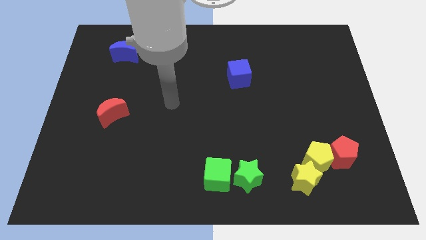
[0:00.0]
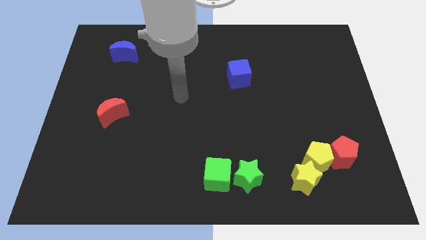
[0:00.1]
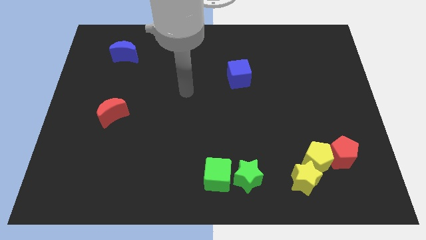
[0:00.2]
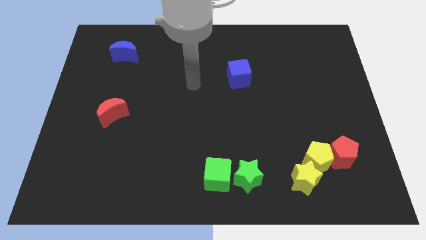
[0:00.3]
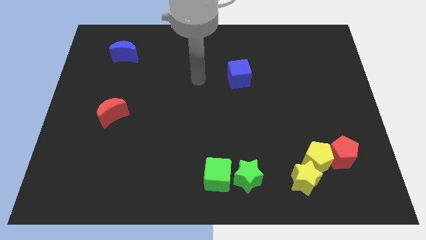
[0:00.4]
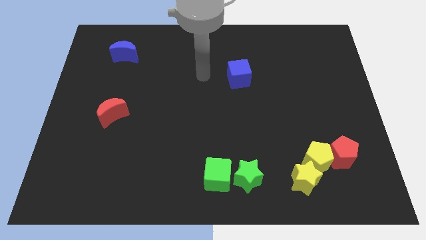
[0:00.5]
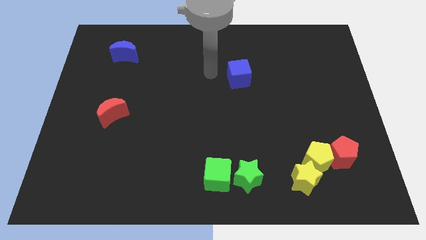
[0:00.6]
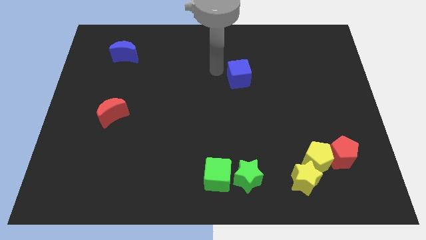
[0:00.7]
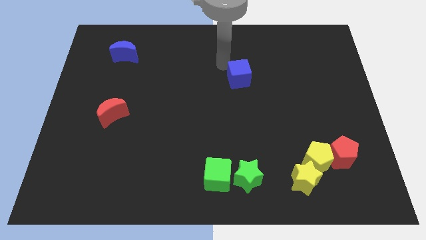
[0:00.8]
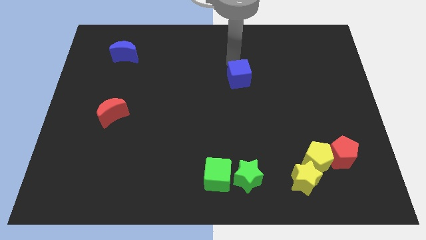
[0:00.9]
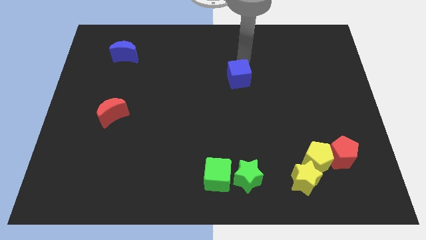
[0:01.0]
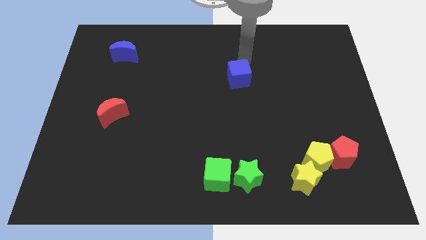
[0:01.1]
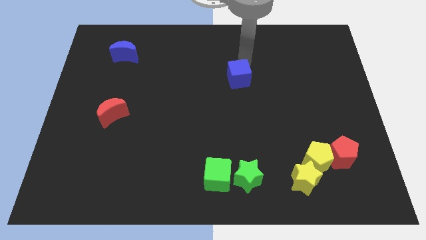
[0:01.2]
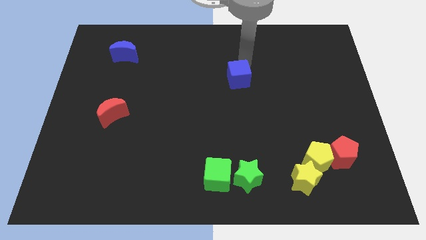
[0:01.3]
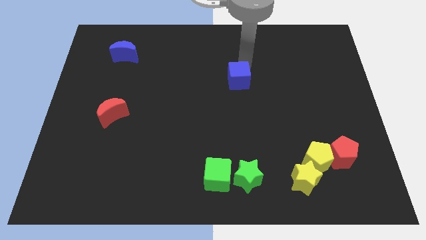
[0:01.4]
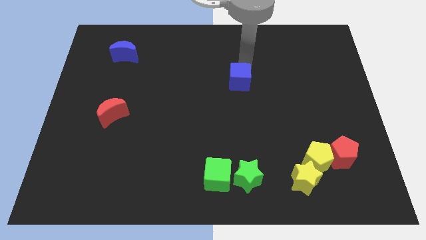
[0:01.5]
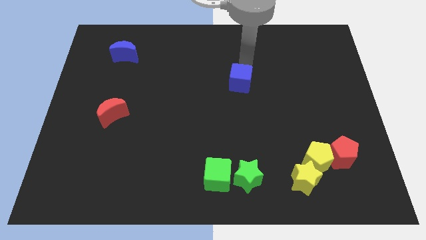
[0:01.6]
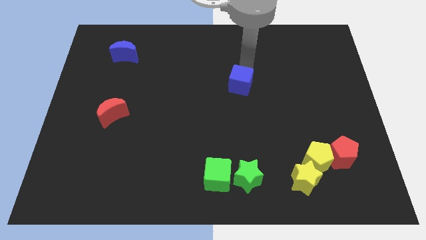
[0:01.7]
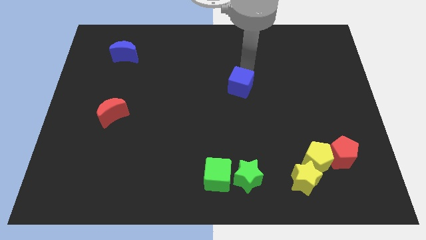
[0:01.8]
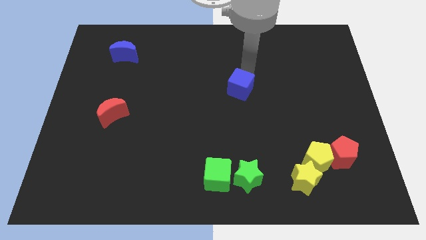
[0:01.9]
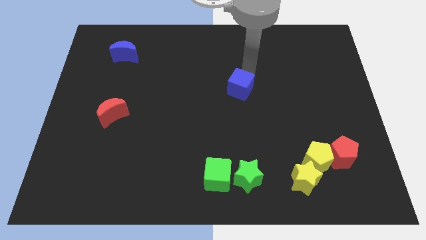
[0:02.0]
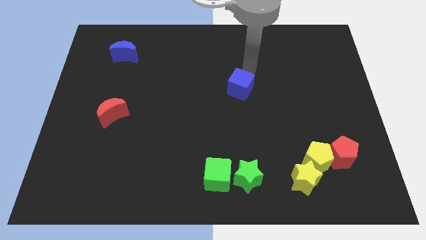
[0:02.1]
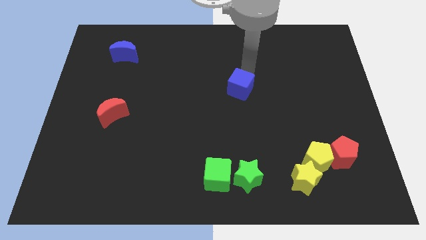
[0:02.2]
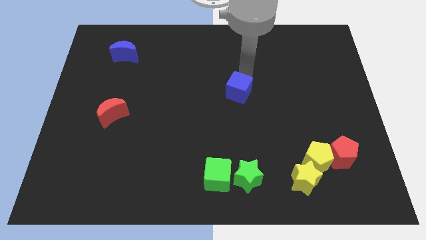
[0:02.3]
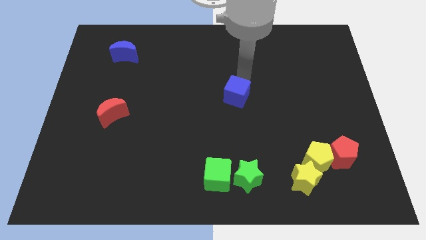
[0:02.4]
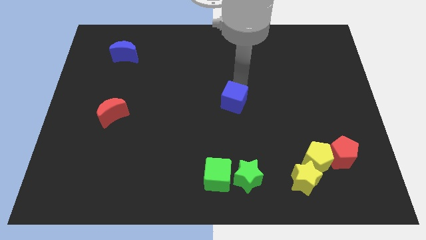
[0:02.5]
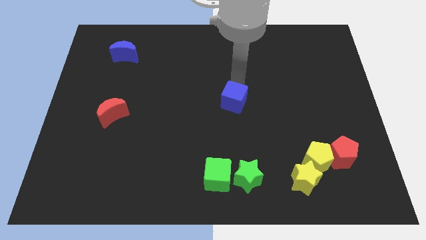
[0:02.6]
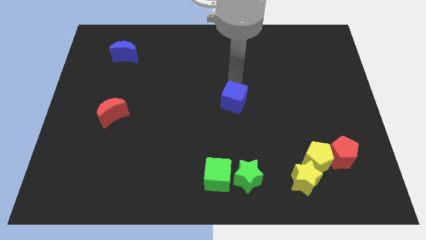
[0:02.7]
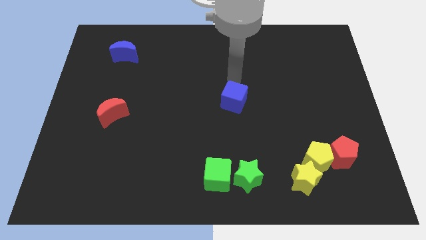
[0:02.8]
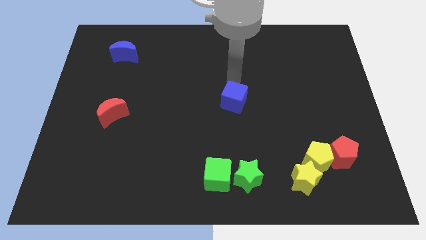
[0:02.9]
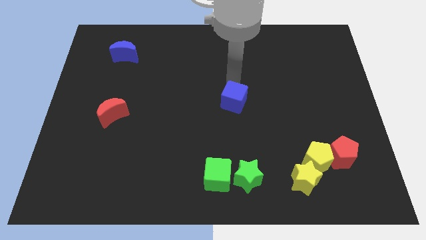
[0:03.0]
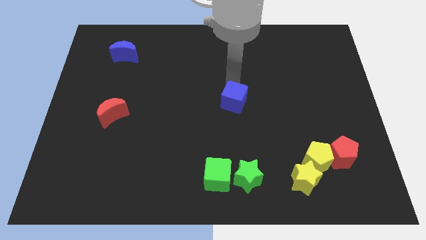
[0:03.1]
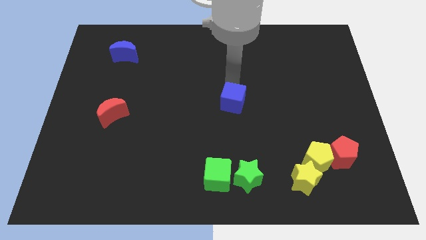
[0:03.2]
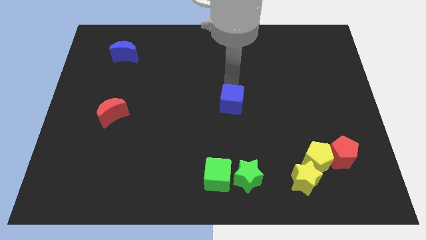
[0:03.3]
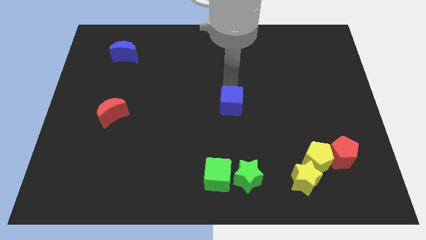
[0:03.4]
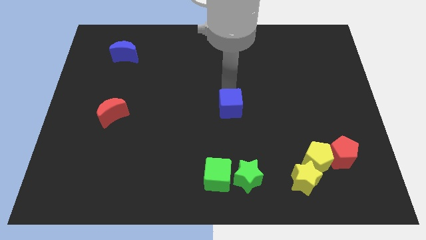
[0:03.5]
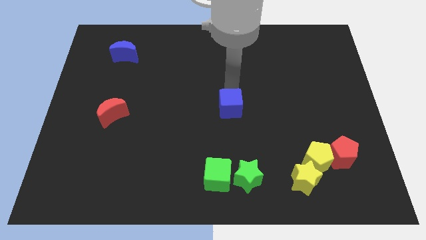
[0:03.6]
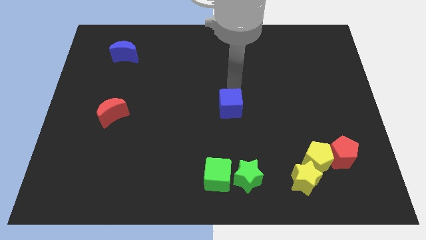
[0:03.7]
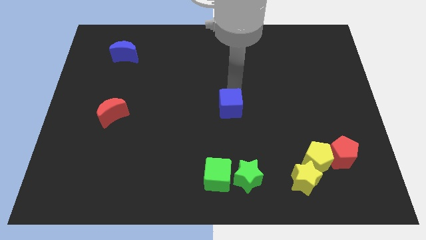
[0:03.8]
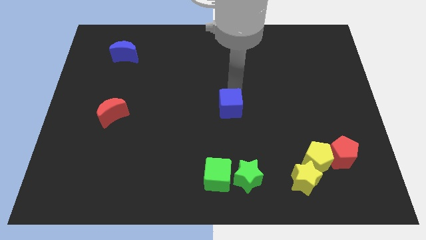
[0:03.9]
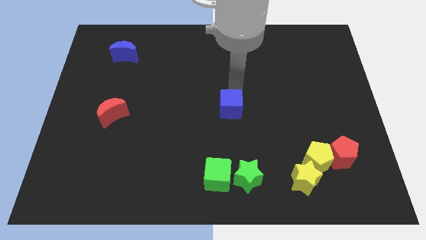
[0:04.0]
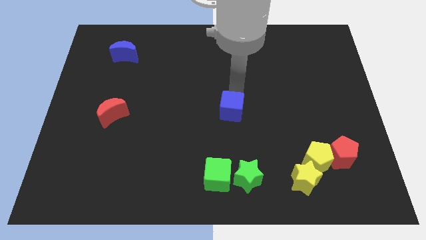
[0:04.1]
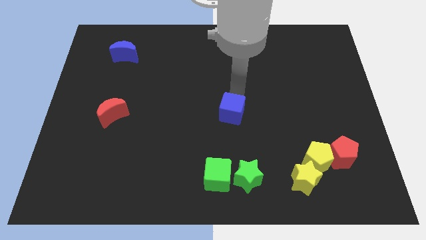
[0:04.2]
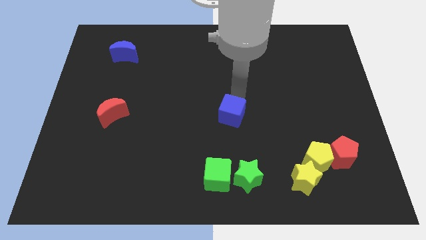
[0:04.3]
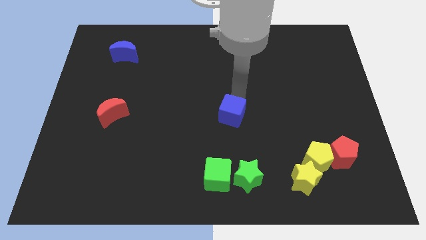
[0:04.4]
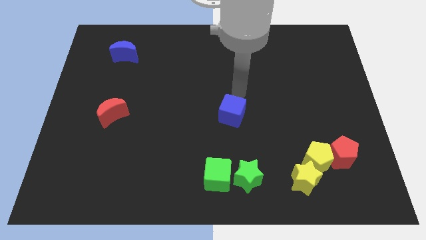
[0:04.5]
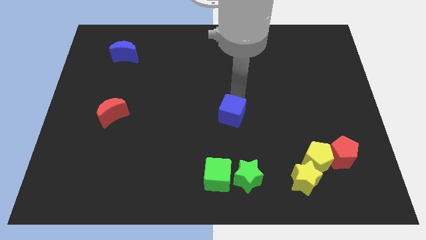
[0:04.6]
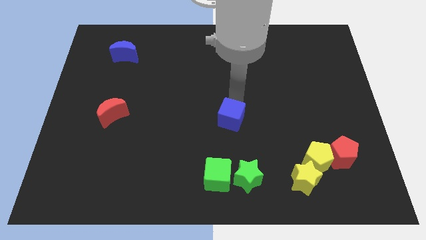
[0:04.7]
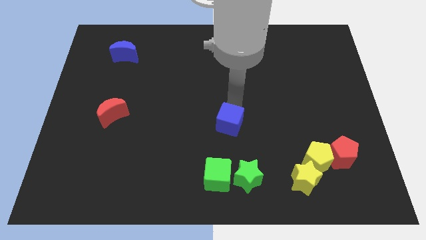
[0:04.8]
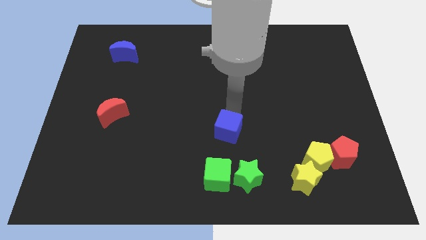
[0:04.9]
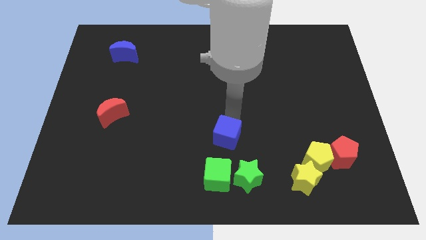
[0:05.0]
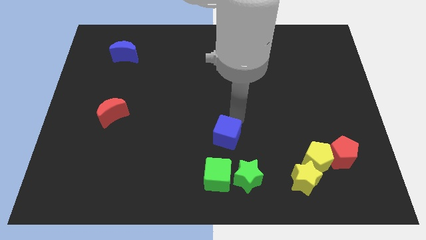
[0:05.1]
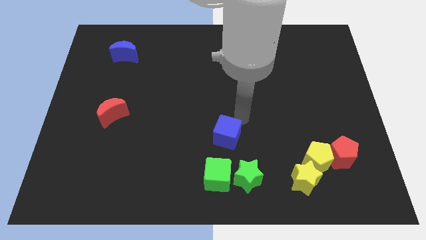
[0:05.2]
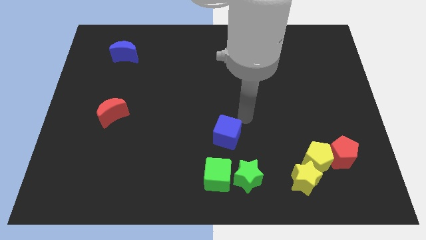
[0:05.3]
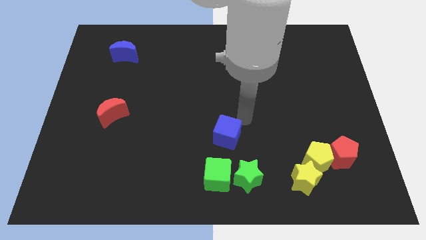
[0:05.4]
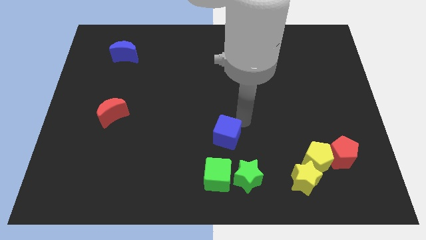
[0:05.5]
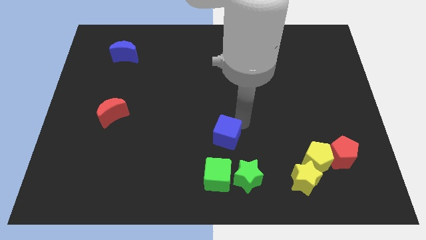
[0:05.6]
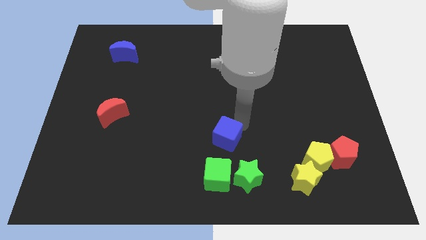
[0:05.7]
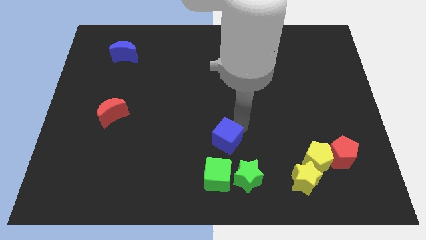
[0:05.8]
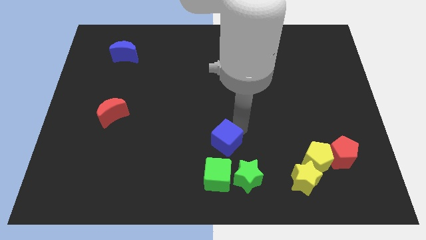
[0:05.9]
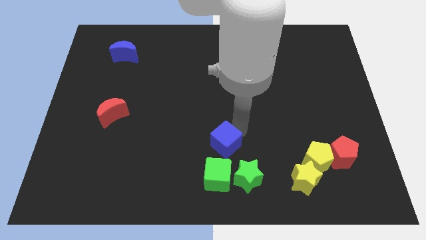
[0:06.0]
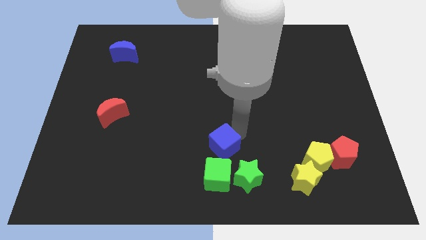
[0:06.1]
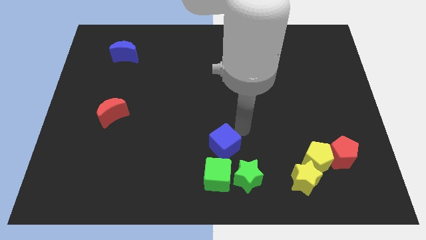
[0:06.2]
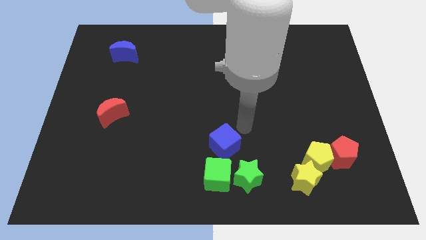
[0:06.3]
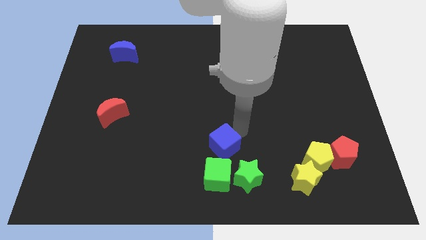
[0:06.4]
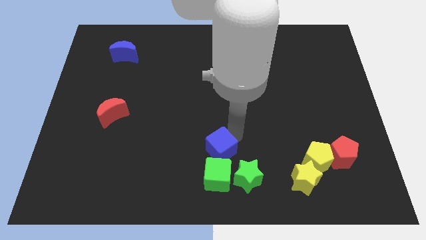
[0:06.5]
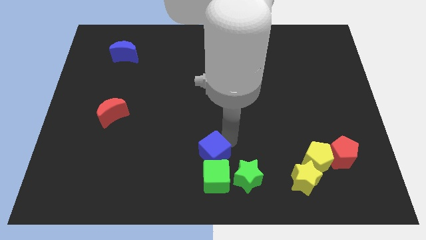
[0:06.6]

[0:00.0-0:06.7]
move the blue cube to the bottom side
